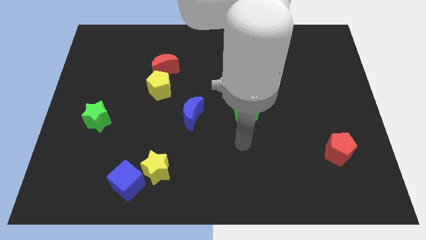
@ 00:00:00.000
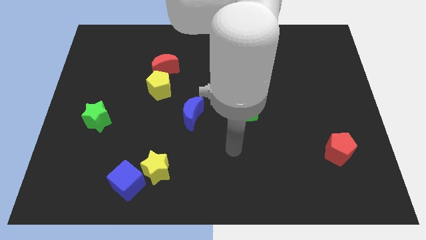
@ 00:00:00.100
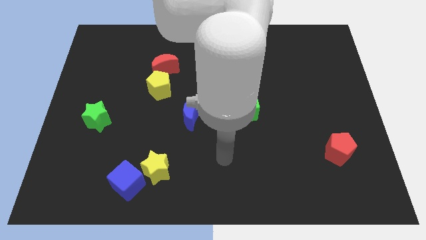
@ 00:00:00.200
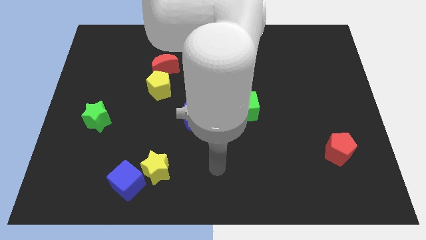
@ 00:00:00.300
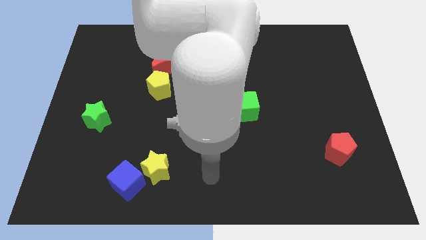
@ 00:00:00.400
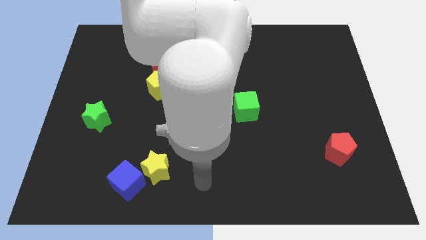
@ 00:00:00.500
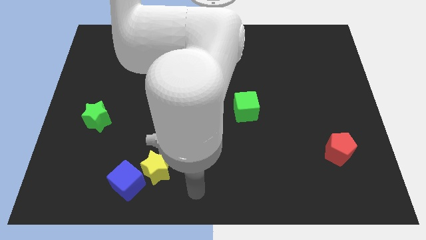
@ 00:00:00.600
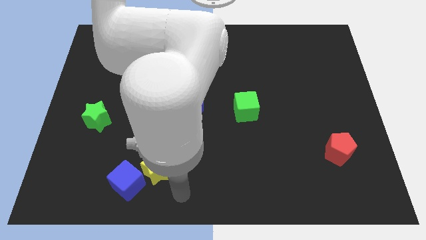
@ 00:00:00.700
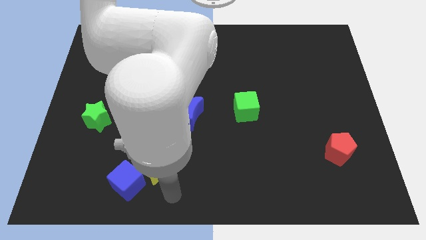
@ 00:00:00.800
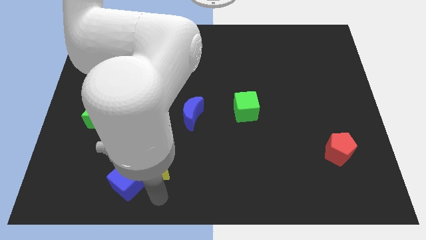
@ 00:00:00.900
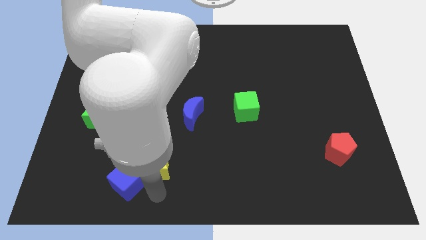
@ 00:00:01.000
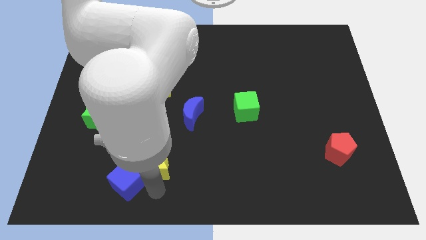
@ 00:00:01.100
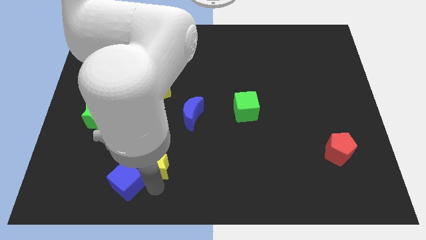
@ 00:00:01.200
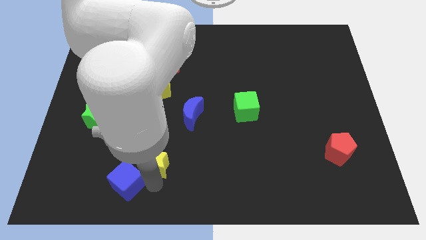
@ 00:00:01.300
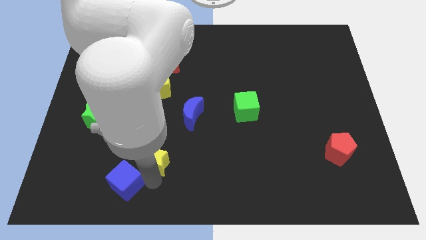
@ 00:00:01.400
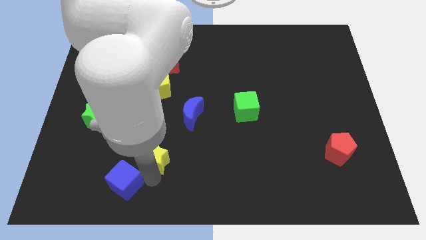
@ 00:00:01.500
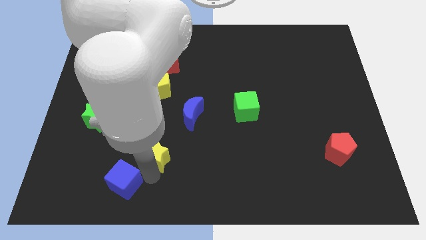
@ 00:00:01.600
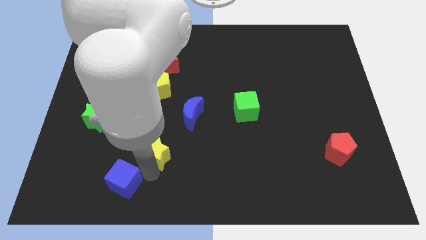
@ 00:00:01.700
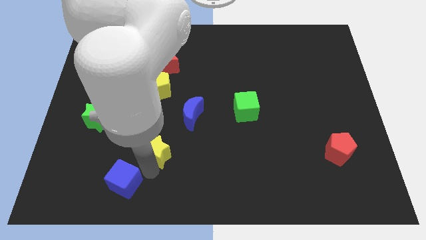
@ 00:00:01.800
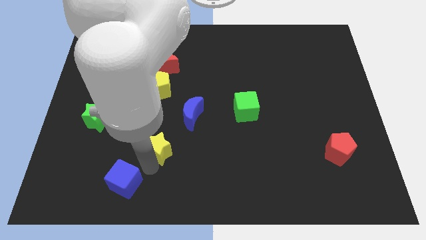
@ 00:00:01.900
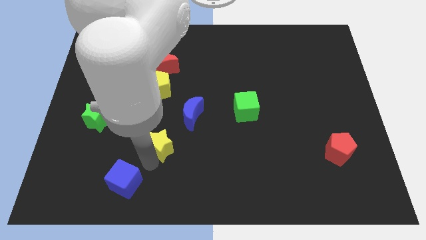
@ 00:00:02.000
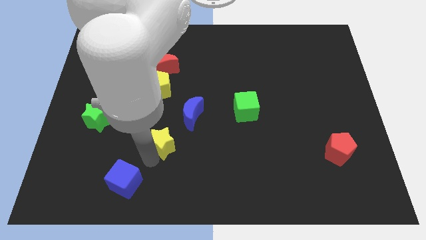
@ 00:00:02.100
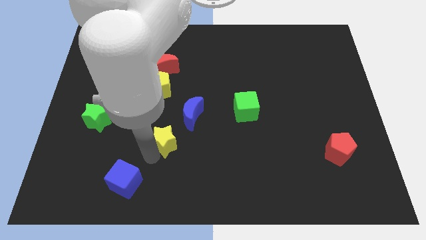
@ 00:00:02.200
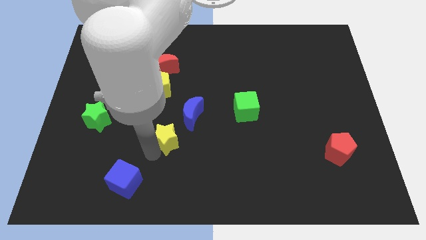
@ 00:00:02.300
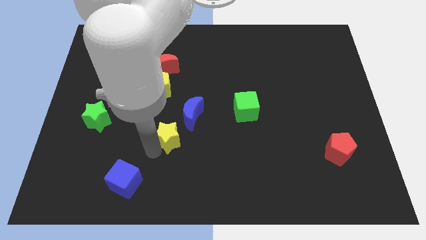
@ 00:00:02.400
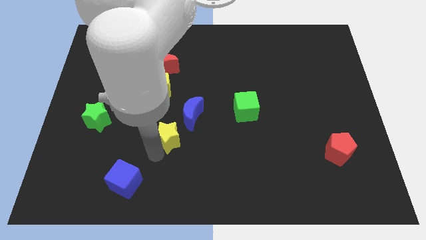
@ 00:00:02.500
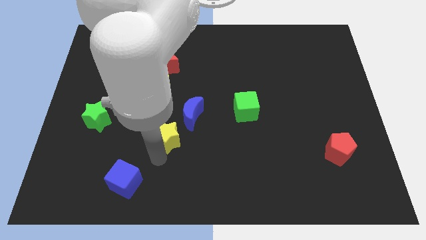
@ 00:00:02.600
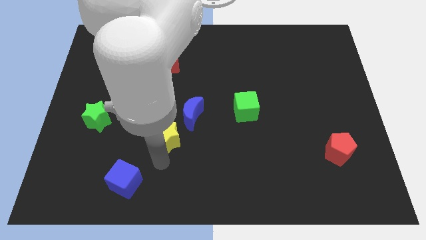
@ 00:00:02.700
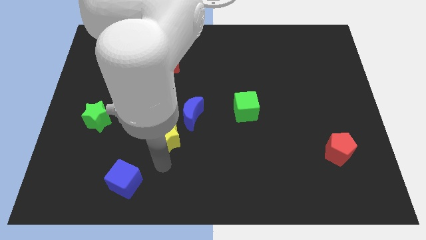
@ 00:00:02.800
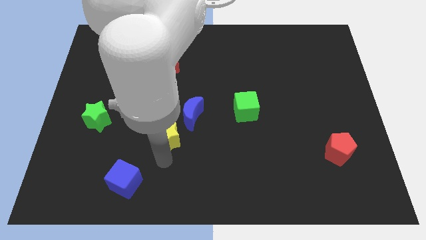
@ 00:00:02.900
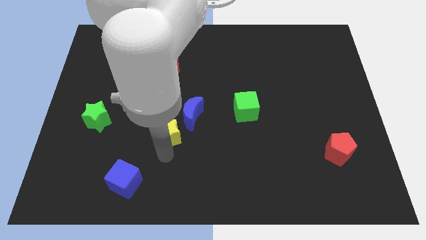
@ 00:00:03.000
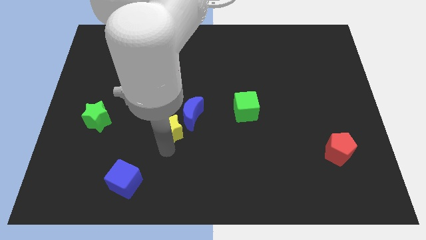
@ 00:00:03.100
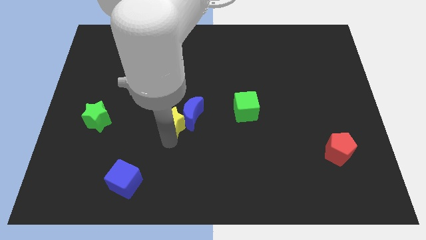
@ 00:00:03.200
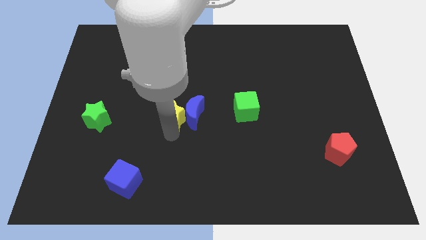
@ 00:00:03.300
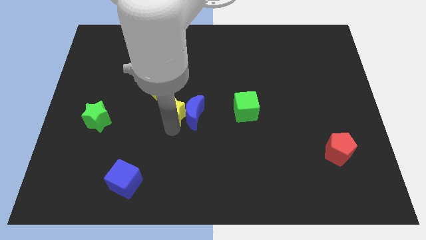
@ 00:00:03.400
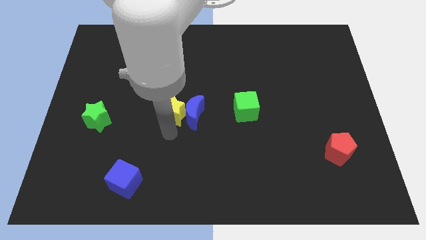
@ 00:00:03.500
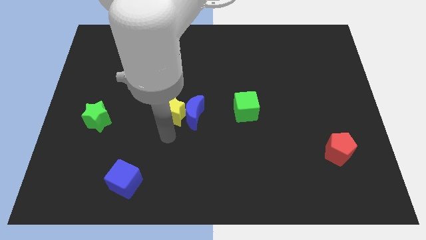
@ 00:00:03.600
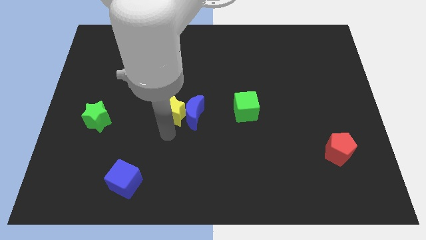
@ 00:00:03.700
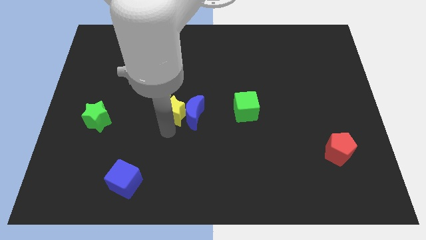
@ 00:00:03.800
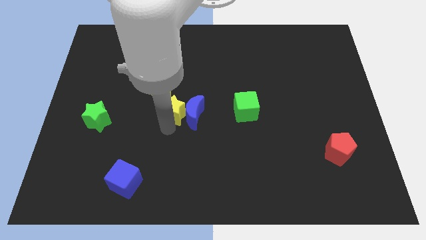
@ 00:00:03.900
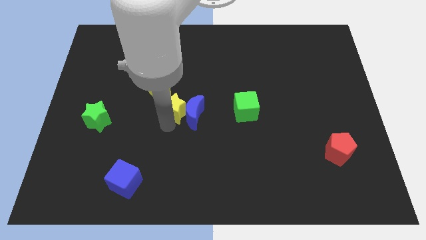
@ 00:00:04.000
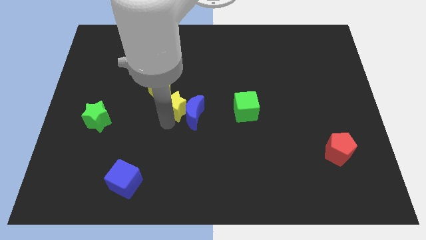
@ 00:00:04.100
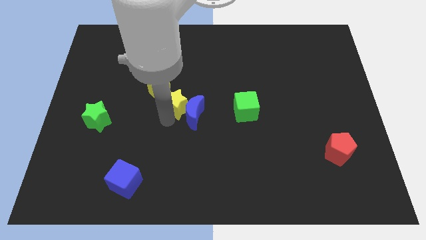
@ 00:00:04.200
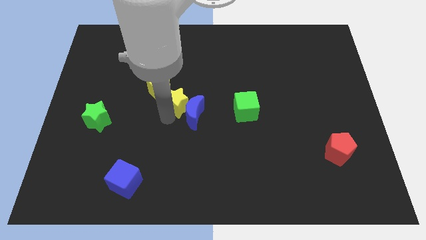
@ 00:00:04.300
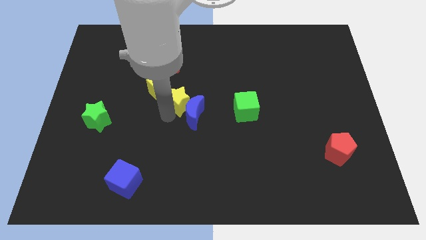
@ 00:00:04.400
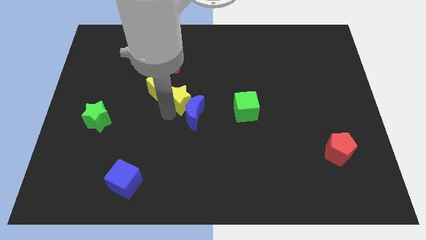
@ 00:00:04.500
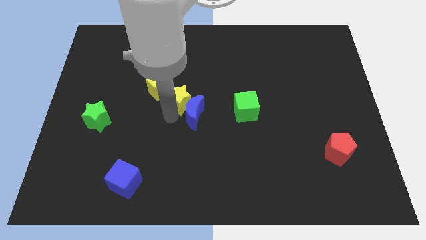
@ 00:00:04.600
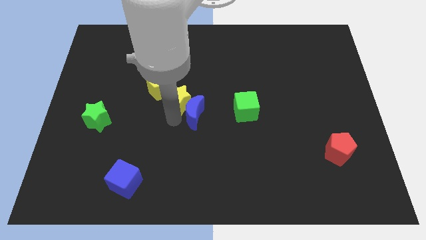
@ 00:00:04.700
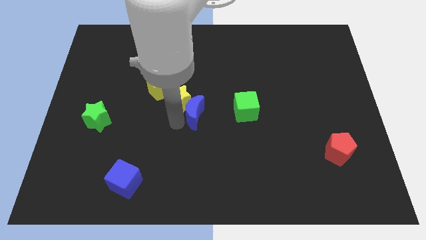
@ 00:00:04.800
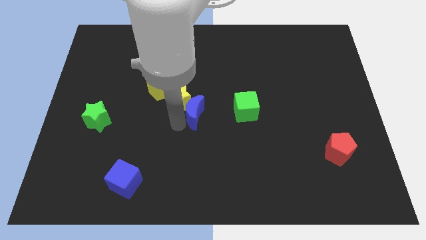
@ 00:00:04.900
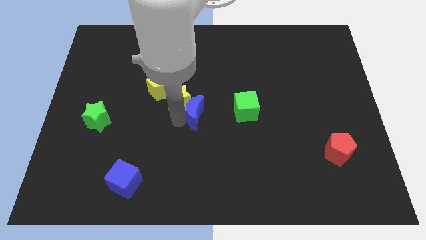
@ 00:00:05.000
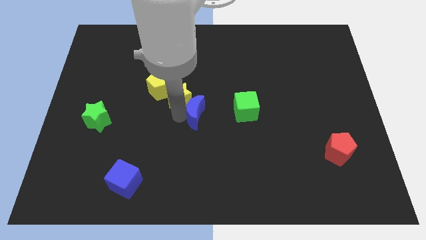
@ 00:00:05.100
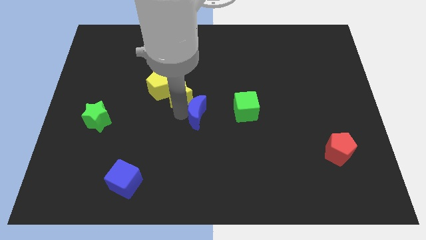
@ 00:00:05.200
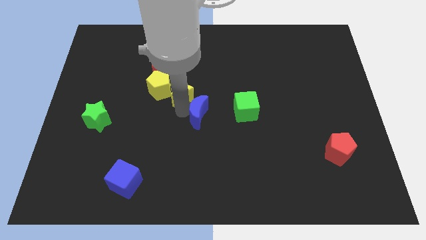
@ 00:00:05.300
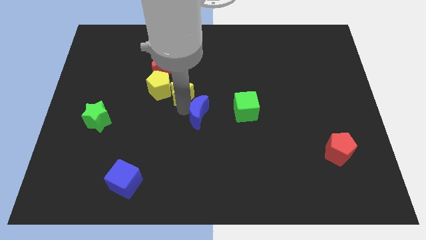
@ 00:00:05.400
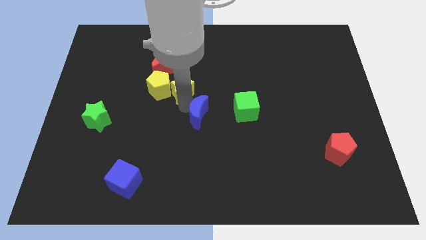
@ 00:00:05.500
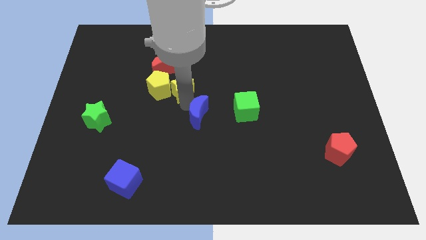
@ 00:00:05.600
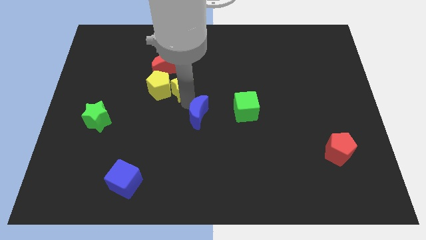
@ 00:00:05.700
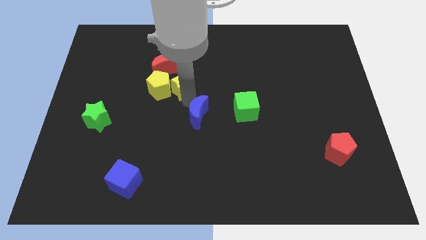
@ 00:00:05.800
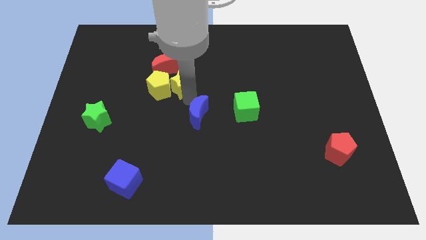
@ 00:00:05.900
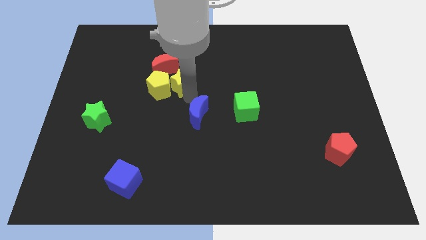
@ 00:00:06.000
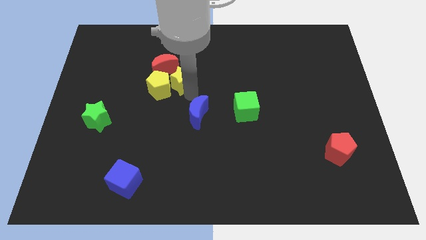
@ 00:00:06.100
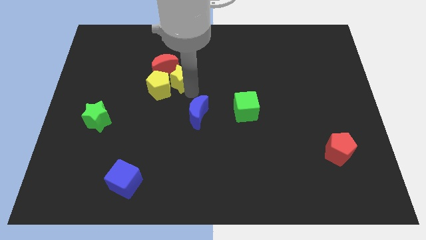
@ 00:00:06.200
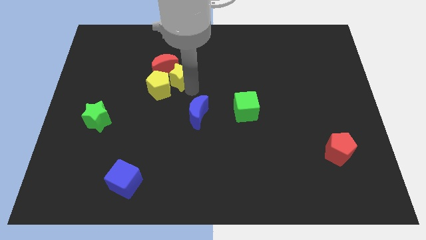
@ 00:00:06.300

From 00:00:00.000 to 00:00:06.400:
put the yellow star close to the red moon
